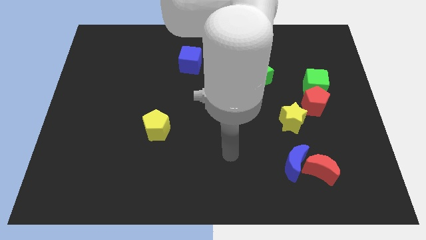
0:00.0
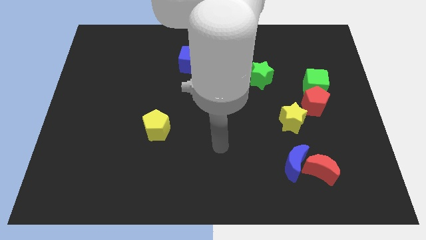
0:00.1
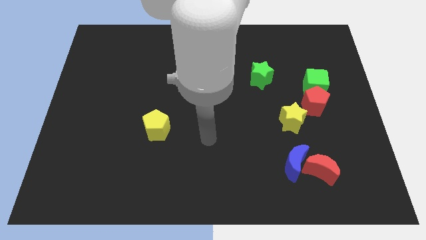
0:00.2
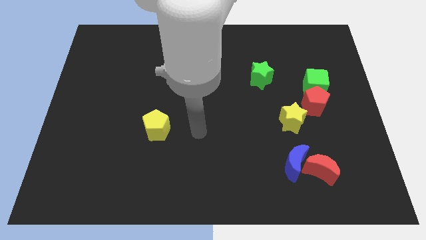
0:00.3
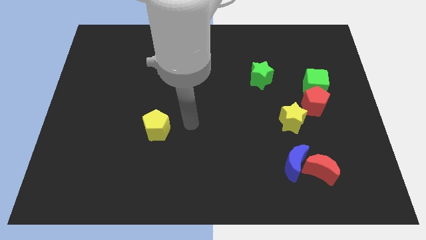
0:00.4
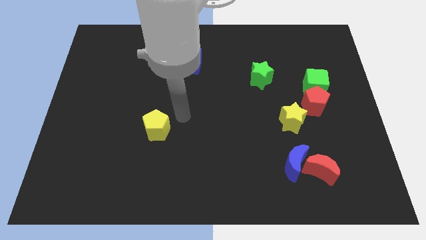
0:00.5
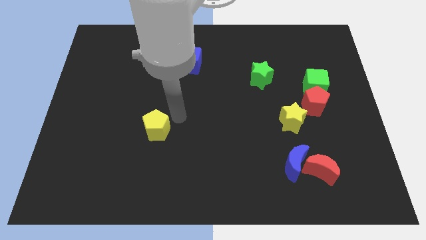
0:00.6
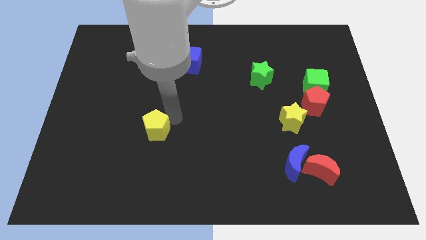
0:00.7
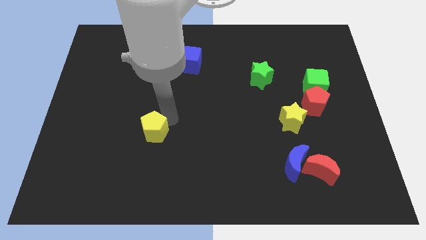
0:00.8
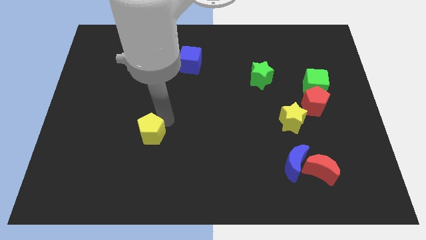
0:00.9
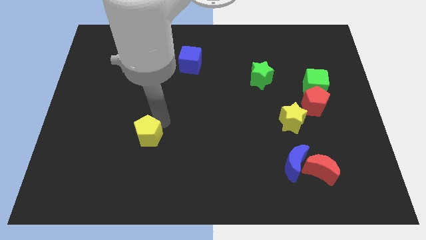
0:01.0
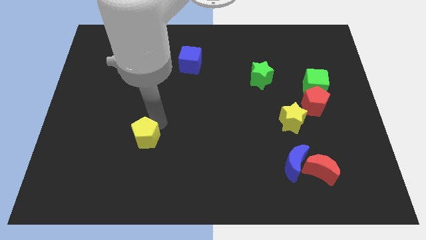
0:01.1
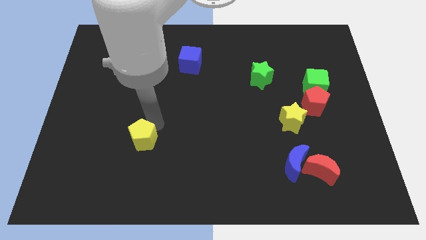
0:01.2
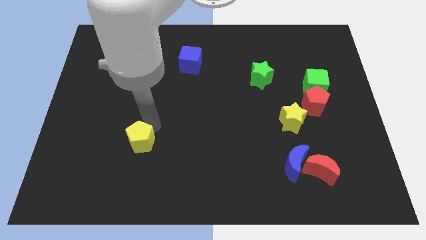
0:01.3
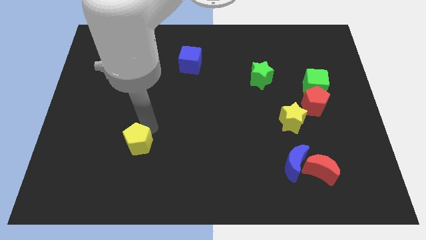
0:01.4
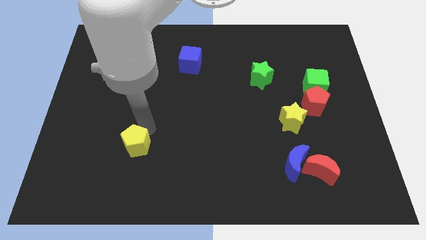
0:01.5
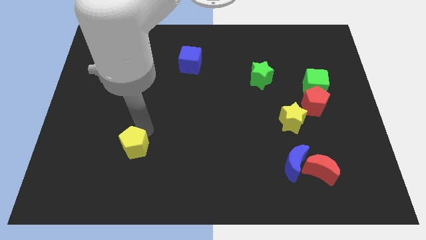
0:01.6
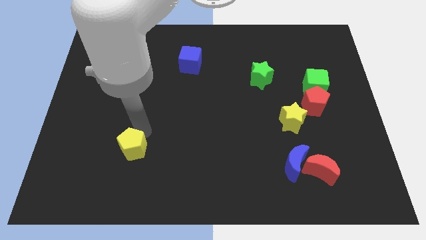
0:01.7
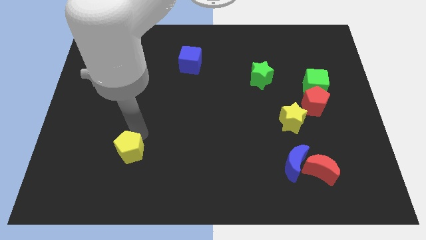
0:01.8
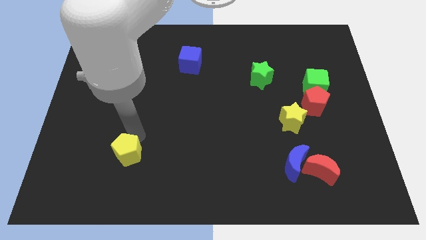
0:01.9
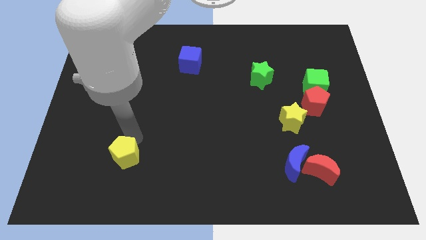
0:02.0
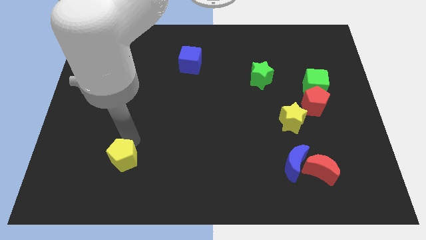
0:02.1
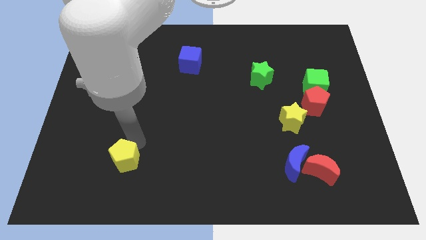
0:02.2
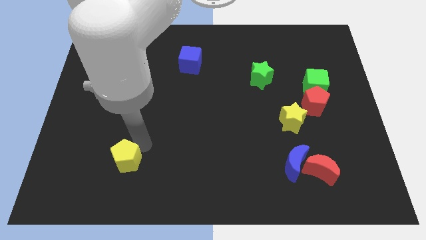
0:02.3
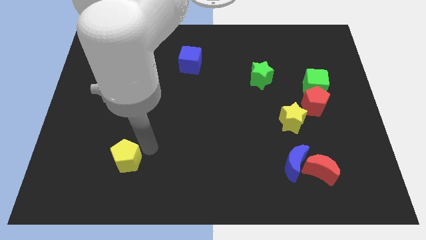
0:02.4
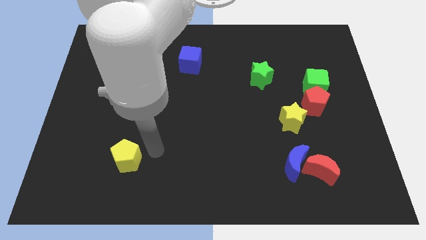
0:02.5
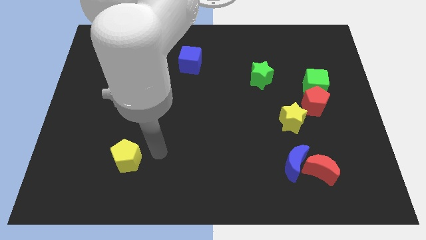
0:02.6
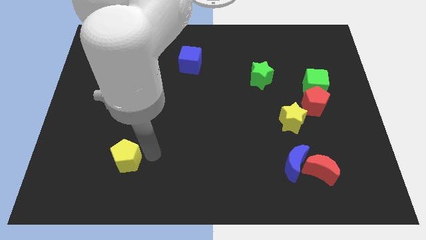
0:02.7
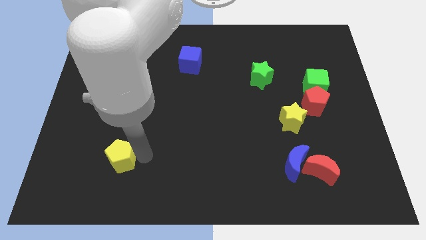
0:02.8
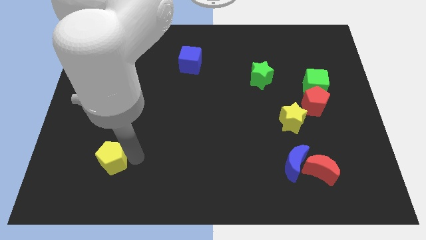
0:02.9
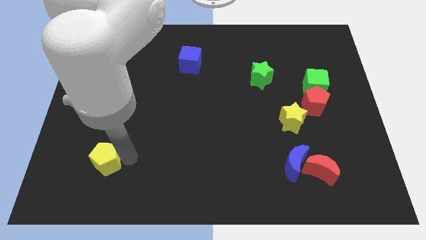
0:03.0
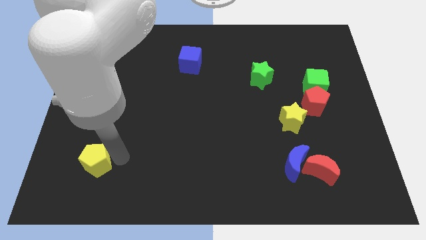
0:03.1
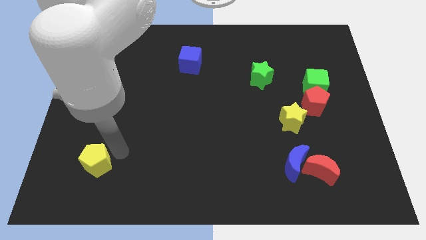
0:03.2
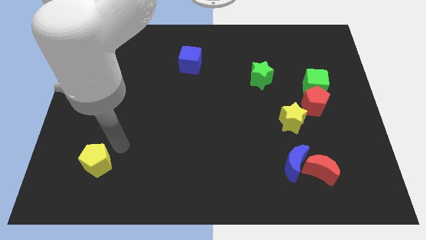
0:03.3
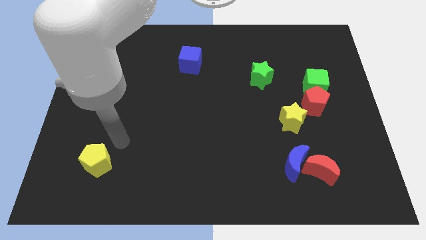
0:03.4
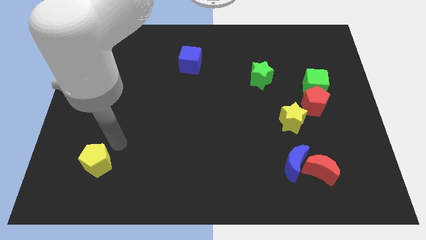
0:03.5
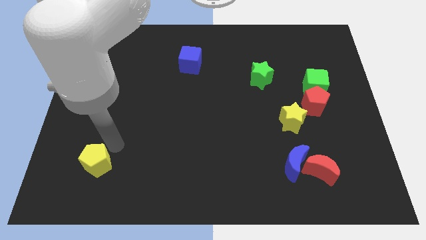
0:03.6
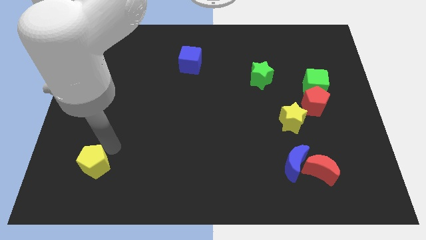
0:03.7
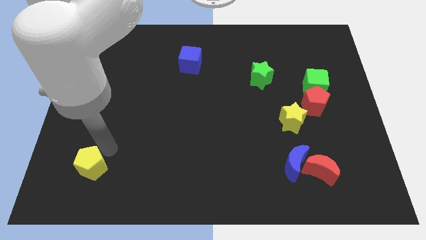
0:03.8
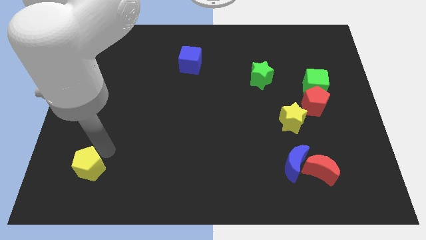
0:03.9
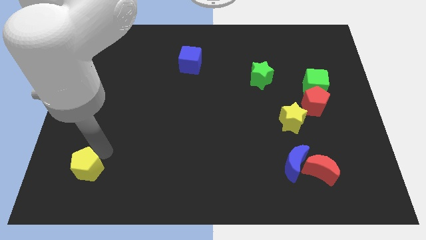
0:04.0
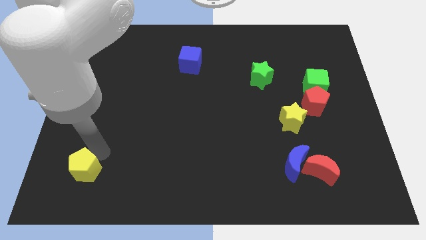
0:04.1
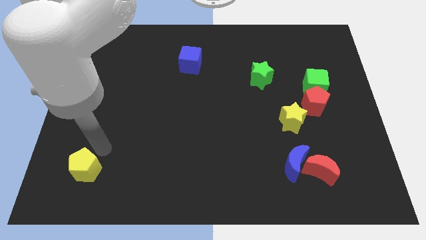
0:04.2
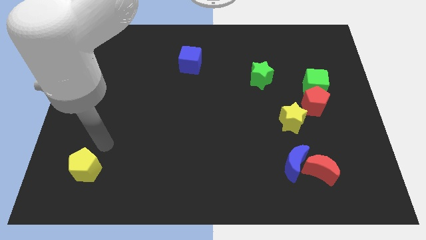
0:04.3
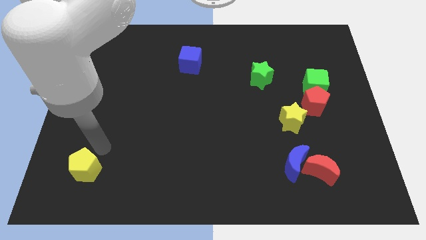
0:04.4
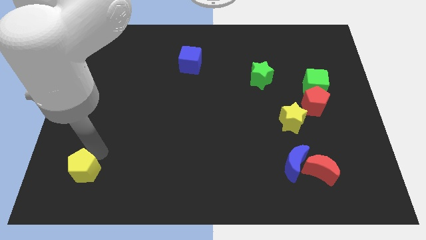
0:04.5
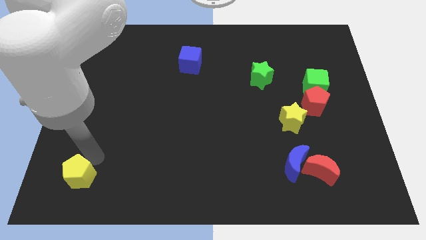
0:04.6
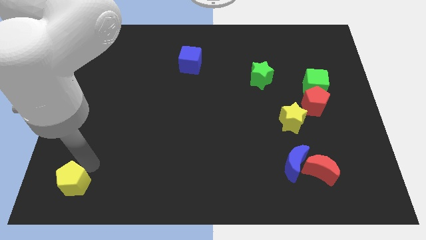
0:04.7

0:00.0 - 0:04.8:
put the yellow pentagon to the bottom left corner

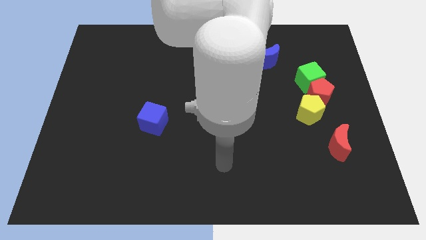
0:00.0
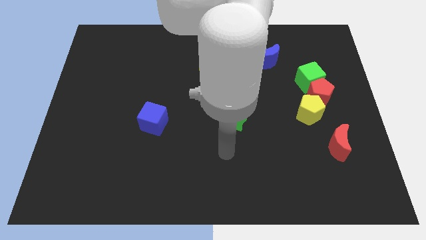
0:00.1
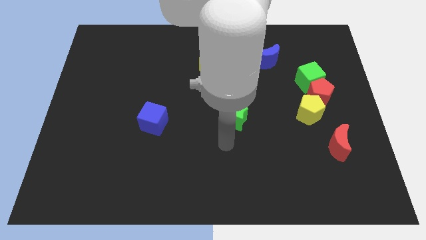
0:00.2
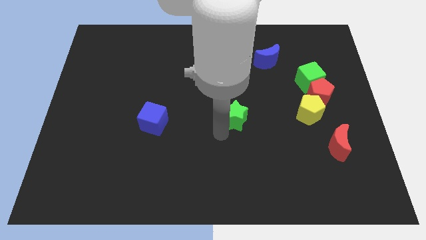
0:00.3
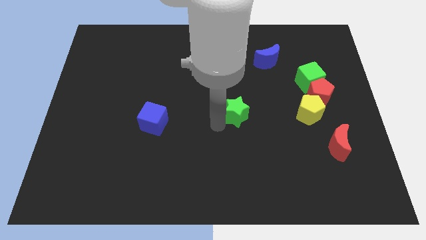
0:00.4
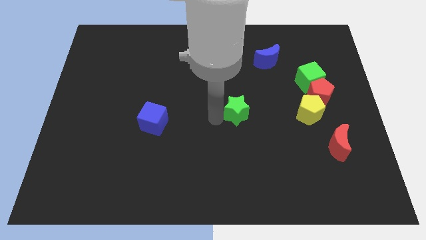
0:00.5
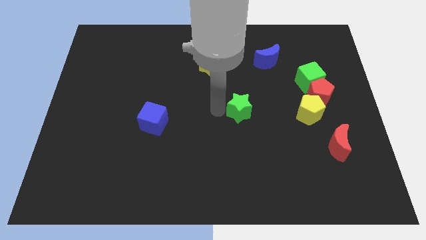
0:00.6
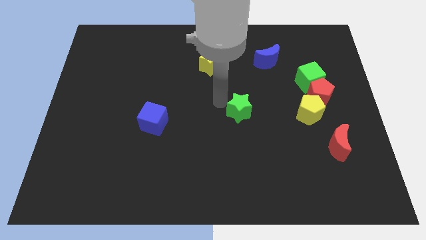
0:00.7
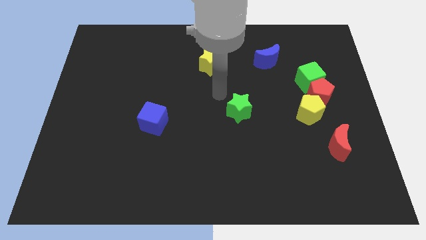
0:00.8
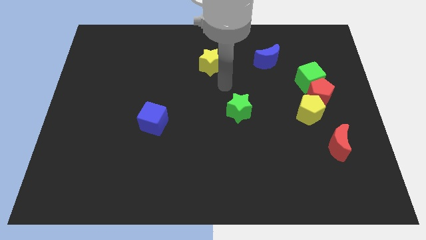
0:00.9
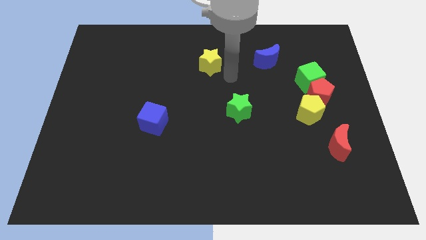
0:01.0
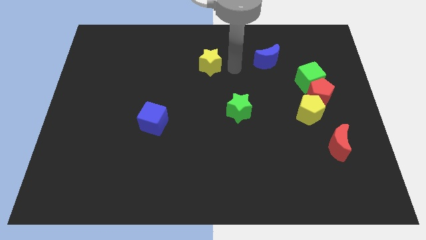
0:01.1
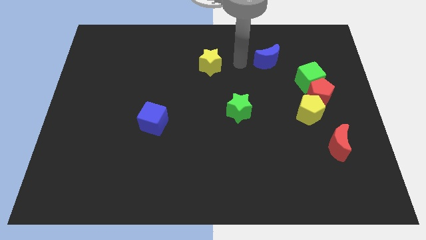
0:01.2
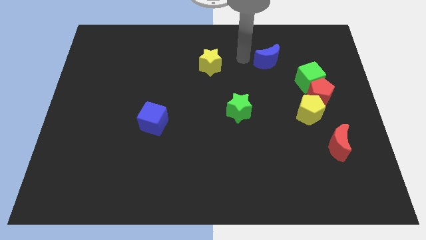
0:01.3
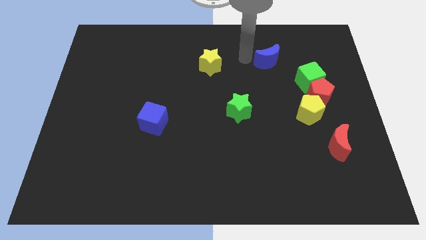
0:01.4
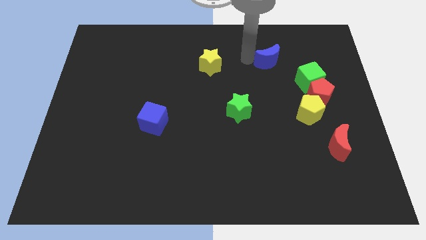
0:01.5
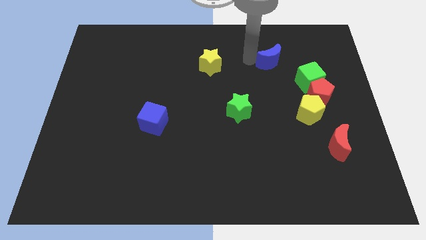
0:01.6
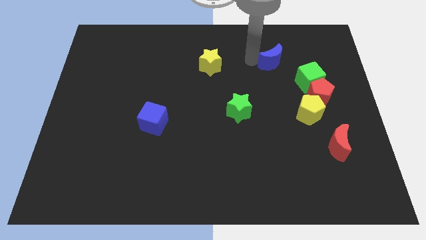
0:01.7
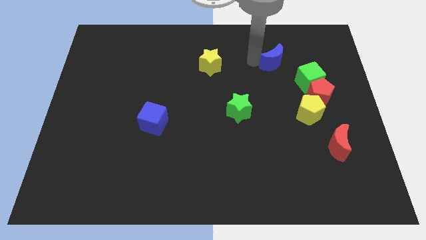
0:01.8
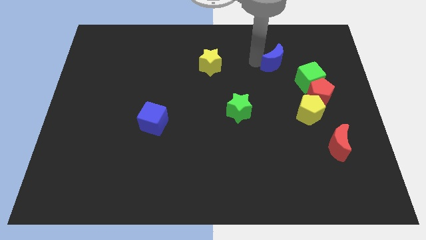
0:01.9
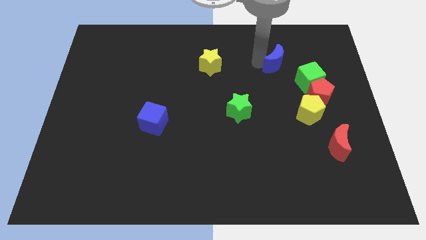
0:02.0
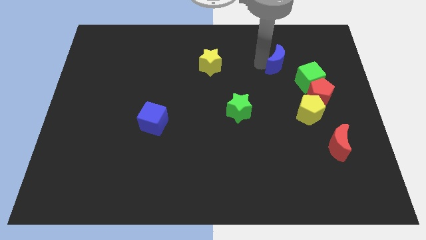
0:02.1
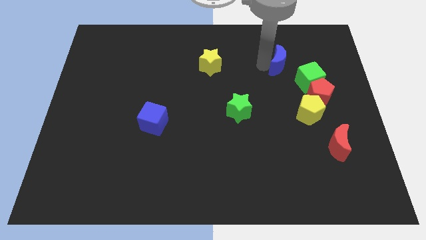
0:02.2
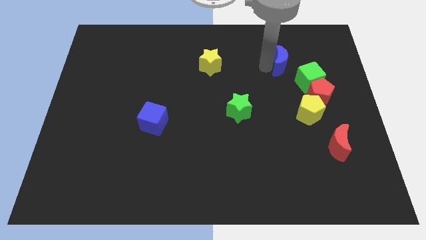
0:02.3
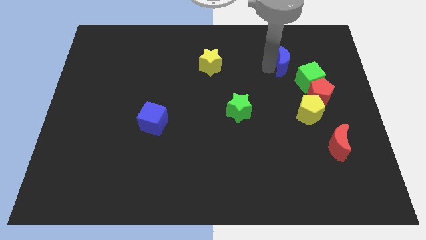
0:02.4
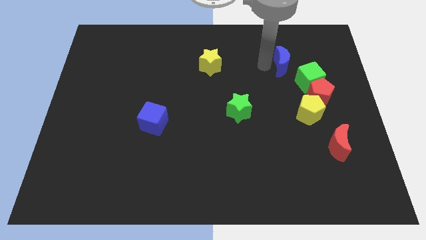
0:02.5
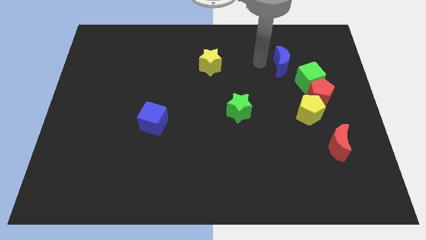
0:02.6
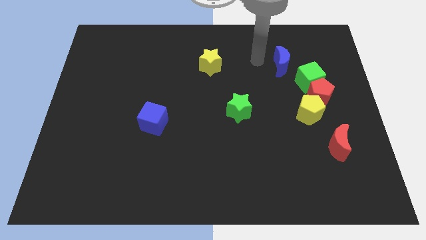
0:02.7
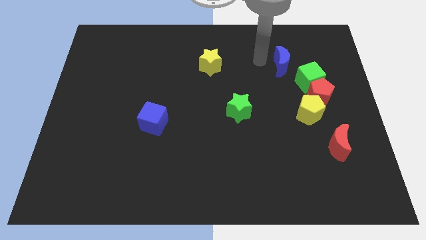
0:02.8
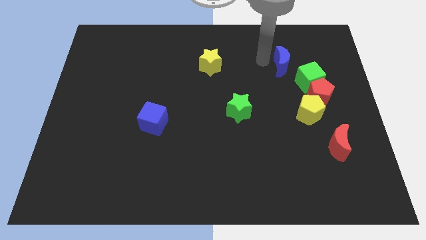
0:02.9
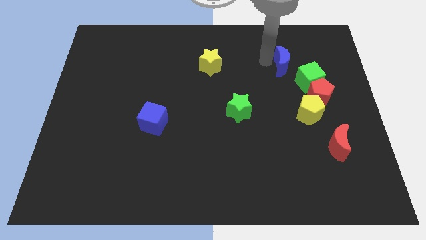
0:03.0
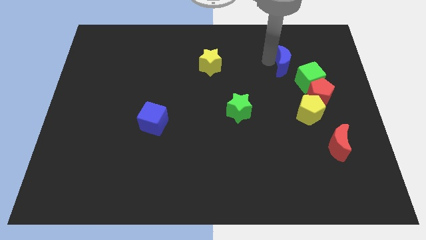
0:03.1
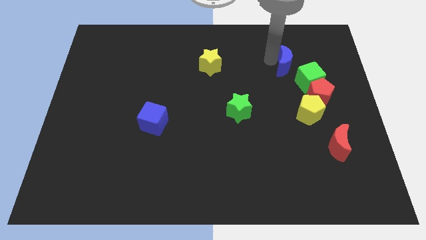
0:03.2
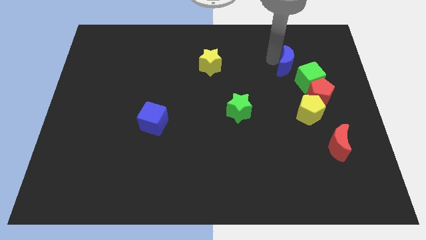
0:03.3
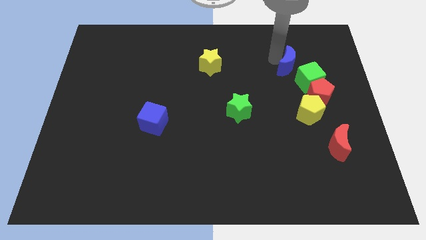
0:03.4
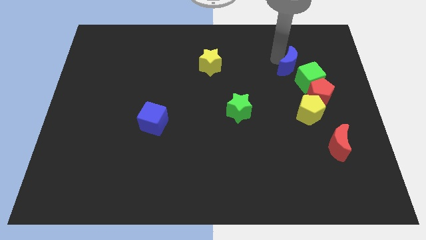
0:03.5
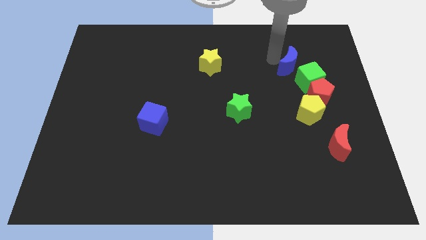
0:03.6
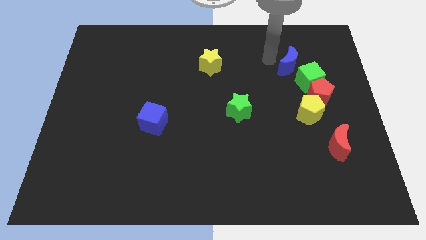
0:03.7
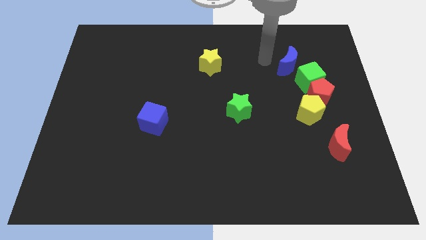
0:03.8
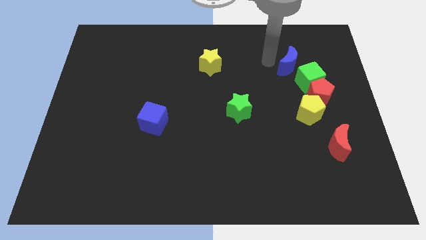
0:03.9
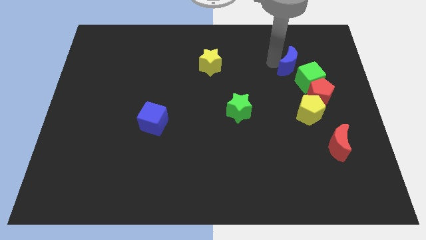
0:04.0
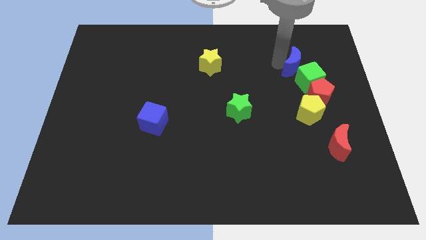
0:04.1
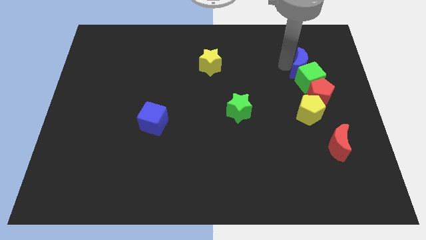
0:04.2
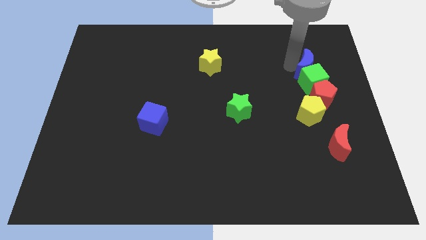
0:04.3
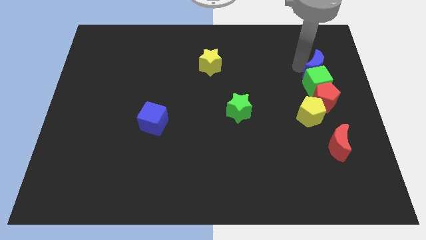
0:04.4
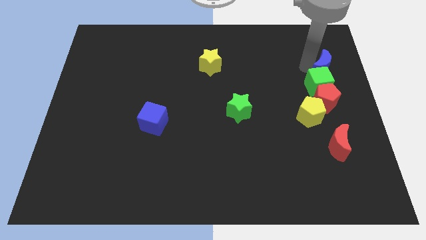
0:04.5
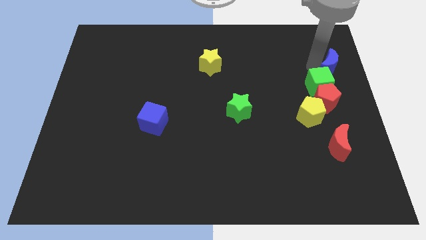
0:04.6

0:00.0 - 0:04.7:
slide the blue moon to the right side of the board
